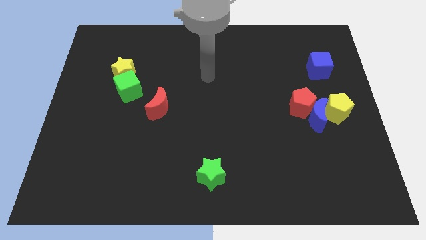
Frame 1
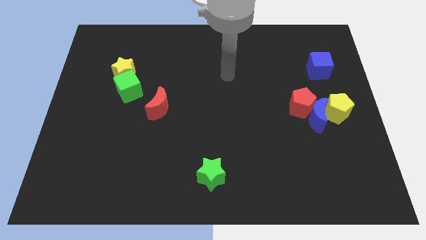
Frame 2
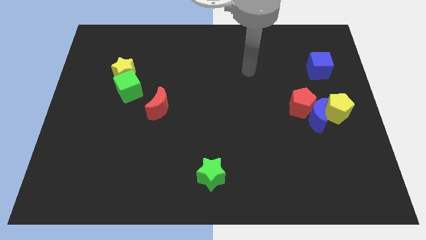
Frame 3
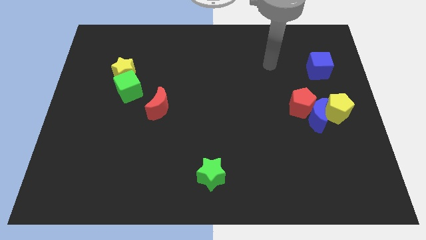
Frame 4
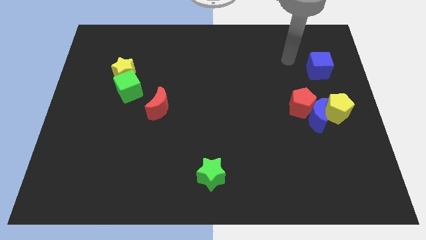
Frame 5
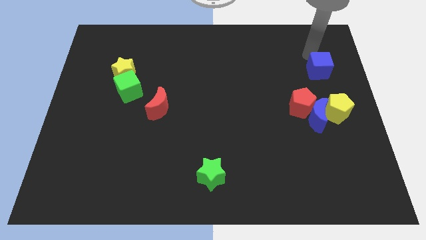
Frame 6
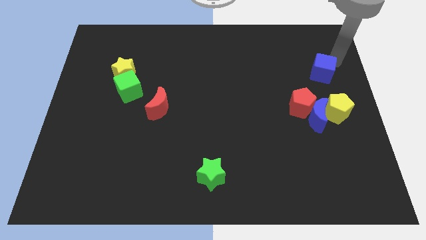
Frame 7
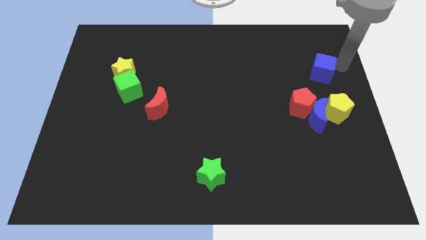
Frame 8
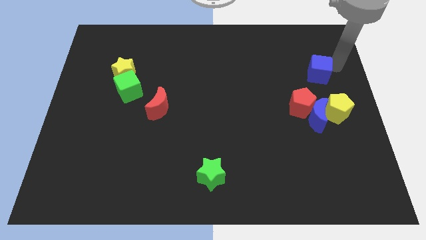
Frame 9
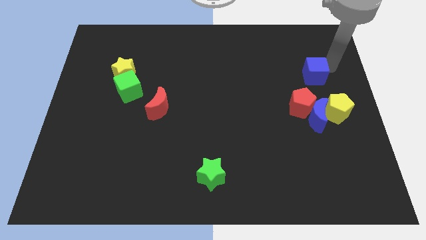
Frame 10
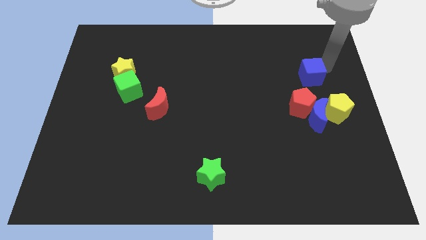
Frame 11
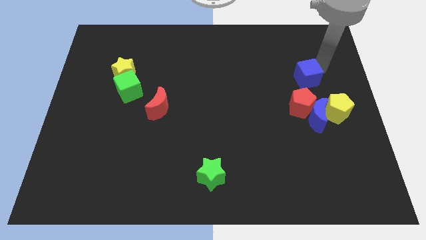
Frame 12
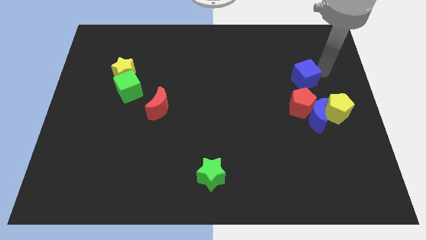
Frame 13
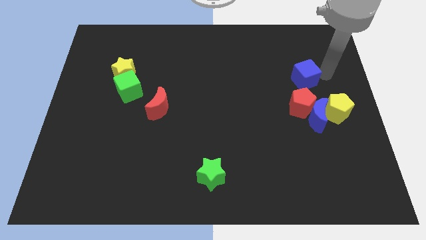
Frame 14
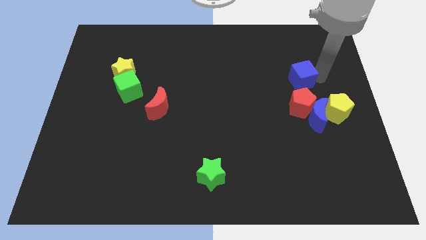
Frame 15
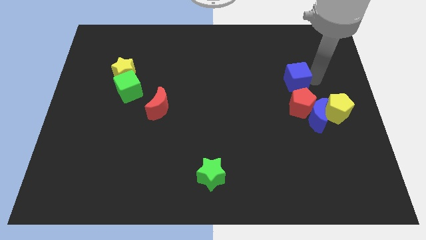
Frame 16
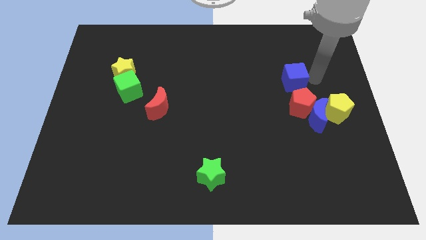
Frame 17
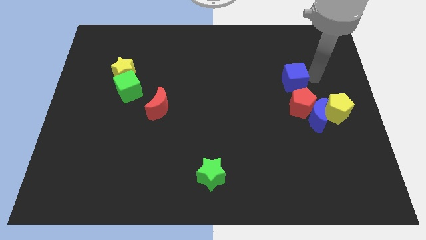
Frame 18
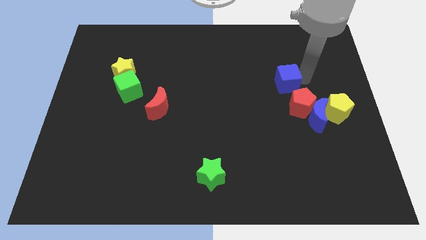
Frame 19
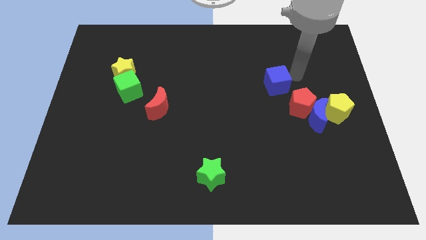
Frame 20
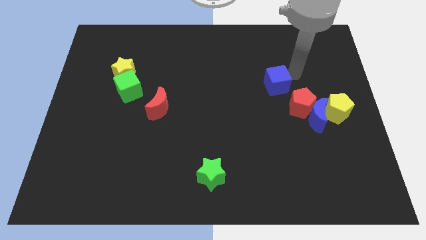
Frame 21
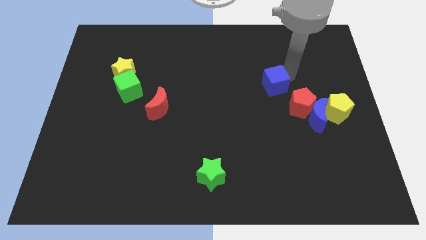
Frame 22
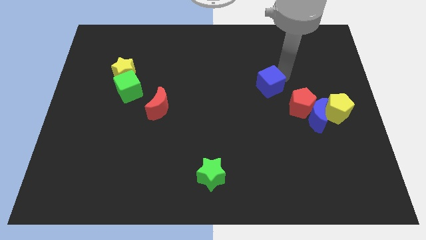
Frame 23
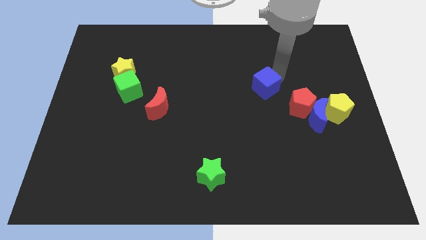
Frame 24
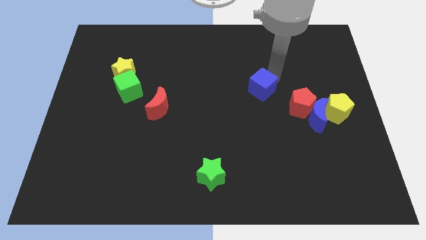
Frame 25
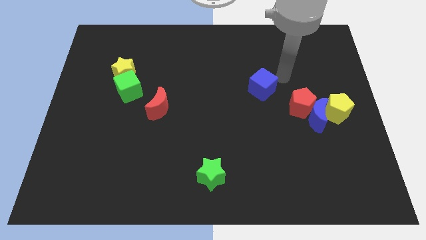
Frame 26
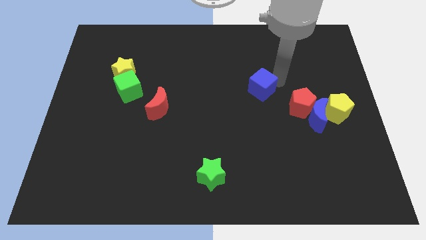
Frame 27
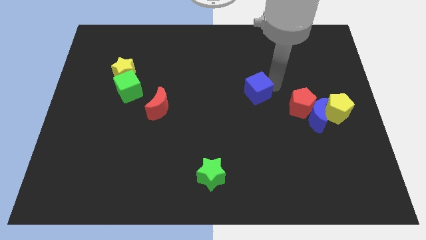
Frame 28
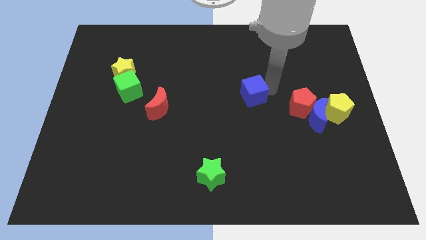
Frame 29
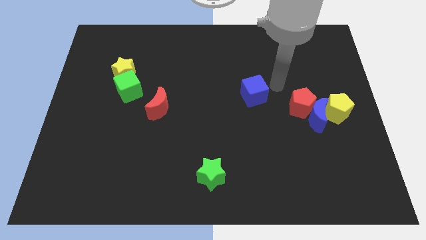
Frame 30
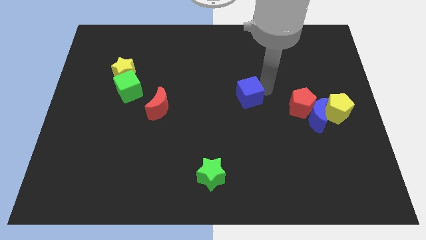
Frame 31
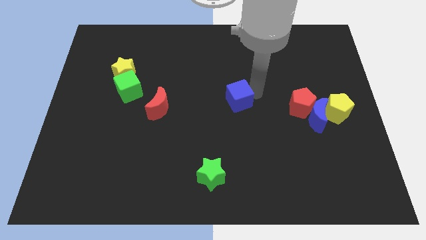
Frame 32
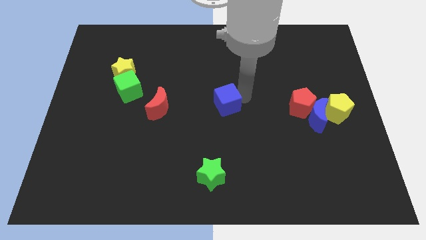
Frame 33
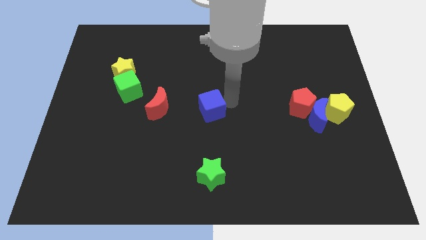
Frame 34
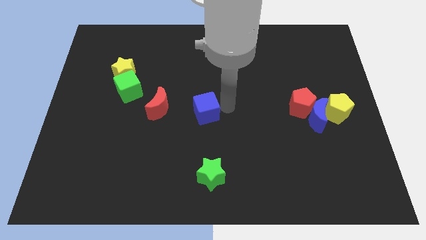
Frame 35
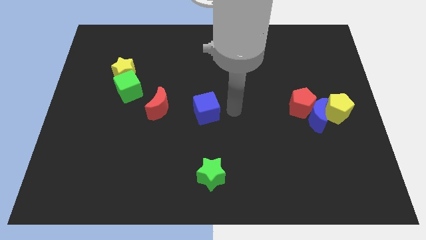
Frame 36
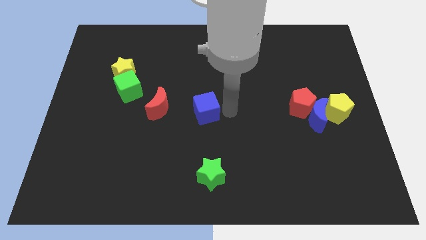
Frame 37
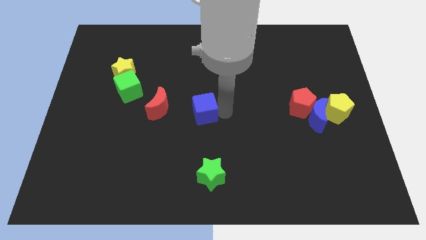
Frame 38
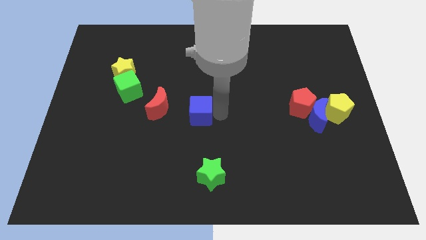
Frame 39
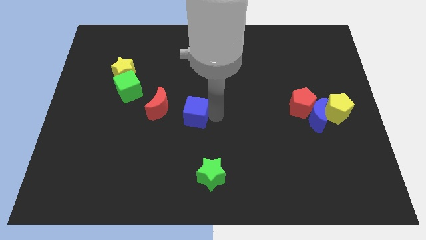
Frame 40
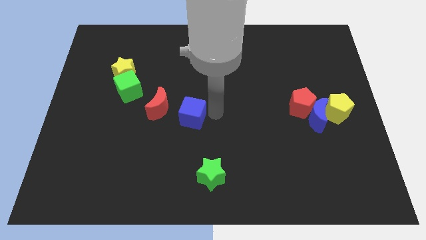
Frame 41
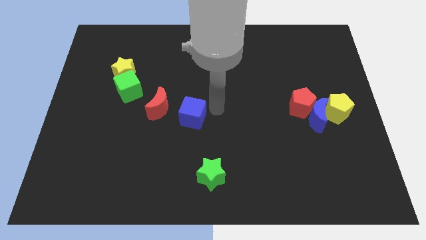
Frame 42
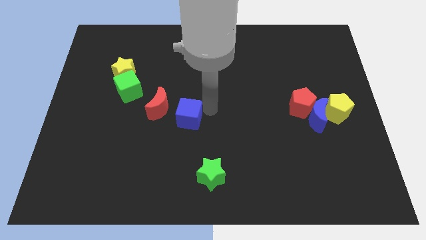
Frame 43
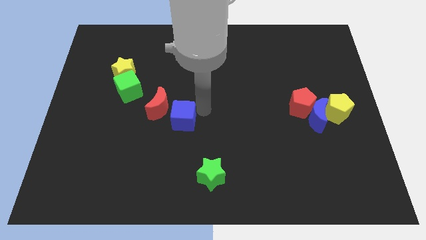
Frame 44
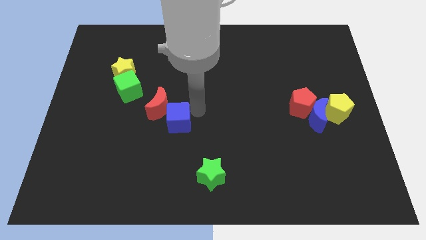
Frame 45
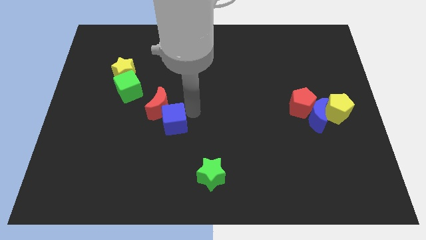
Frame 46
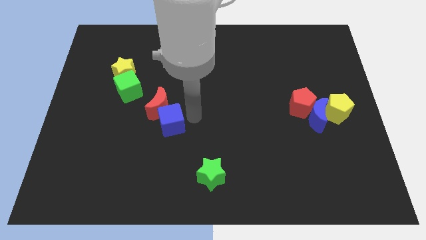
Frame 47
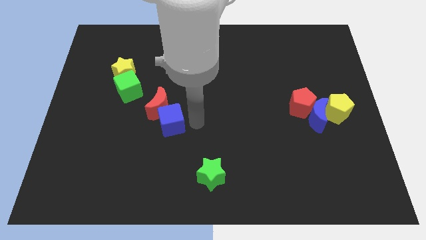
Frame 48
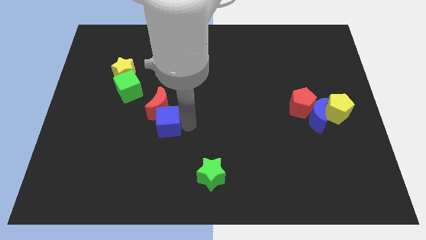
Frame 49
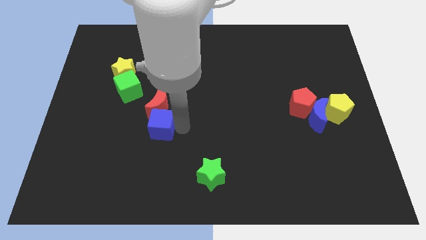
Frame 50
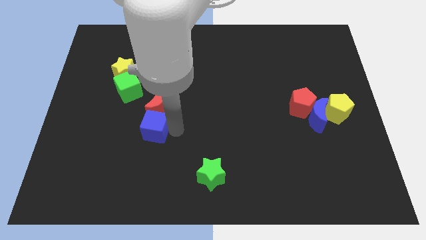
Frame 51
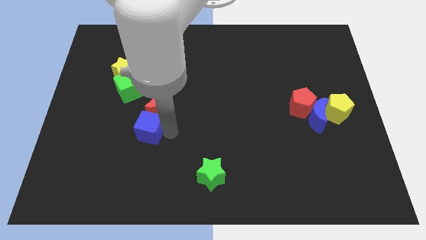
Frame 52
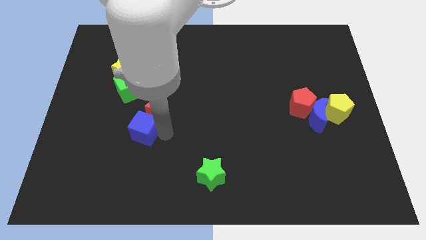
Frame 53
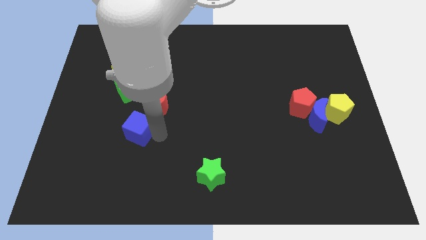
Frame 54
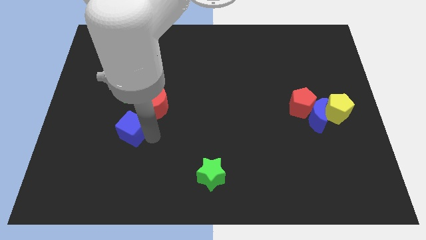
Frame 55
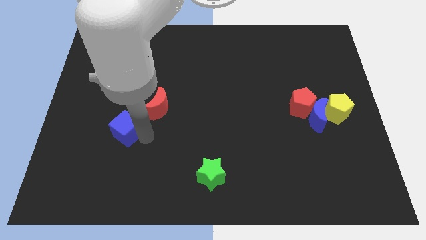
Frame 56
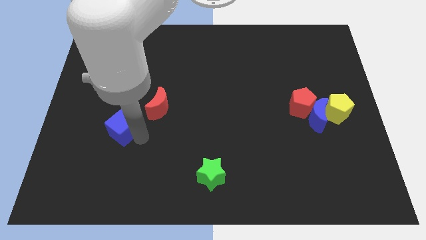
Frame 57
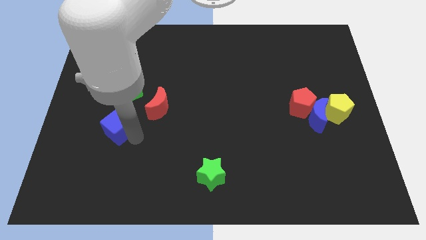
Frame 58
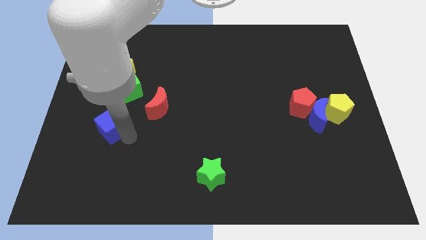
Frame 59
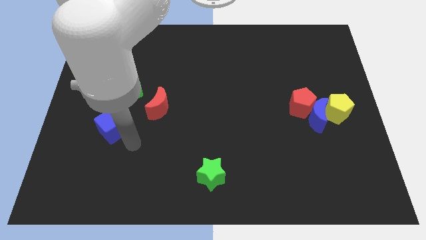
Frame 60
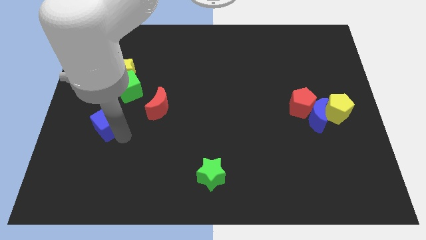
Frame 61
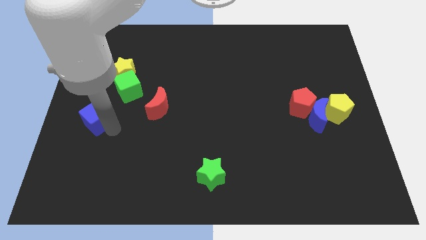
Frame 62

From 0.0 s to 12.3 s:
push the blue cube to the left side of the board
